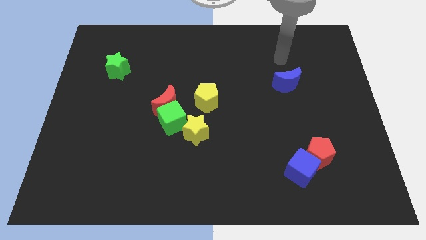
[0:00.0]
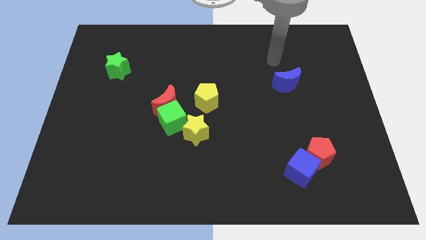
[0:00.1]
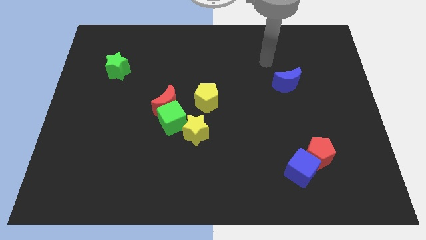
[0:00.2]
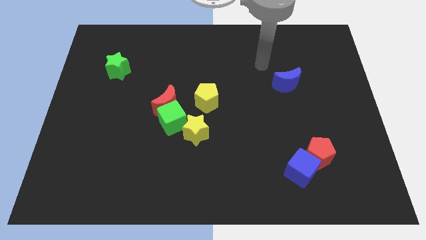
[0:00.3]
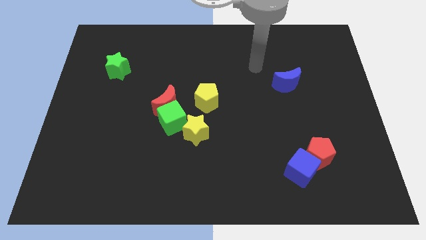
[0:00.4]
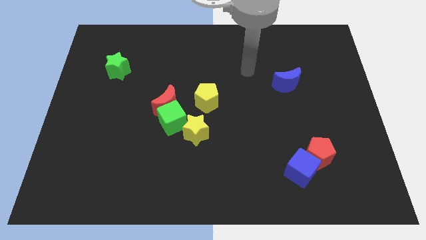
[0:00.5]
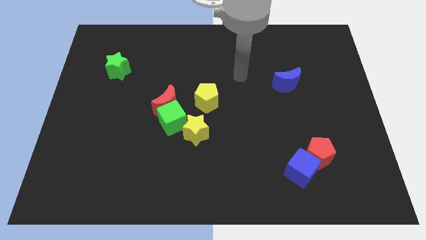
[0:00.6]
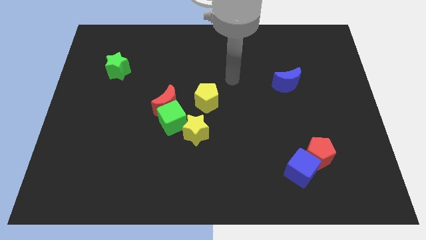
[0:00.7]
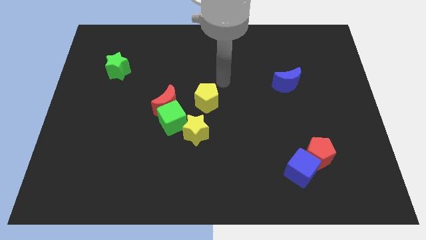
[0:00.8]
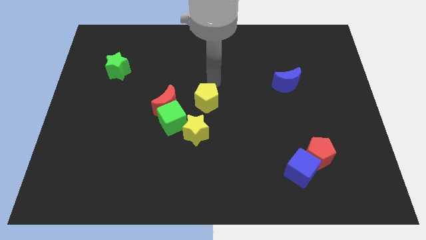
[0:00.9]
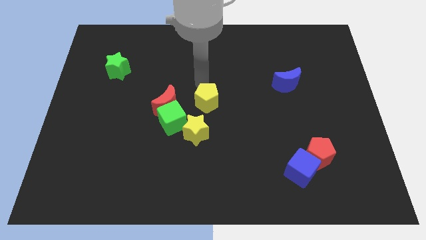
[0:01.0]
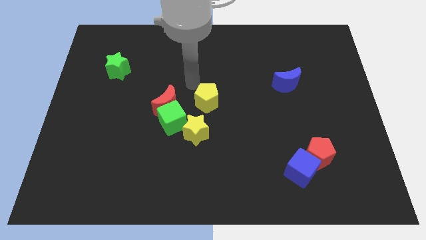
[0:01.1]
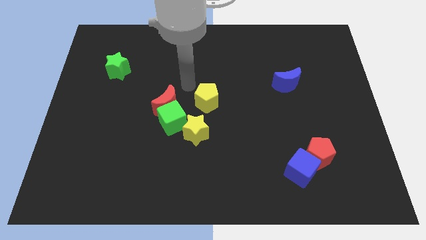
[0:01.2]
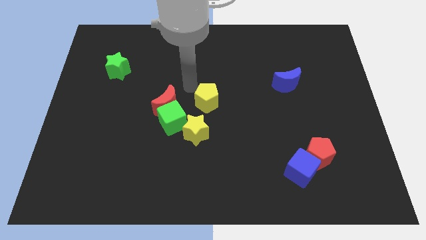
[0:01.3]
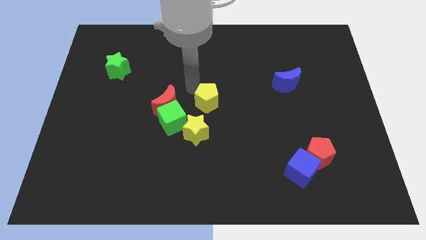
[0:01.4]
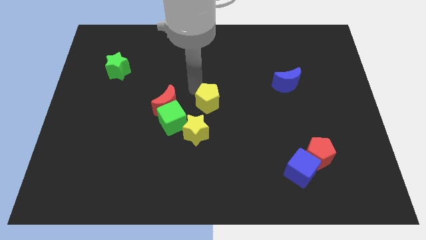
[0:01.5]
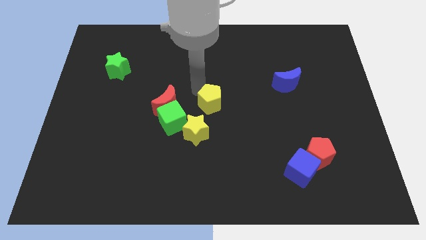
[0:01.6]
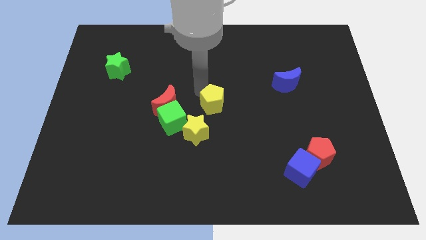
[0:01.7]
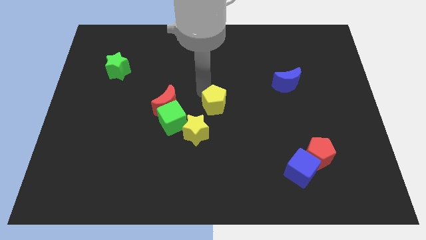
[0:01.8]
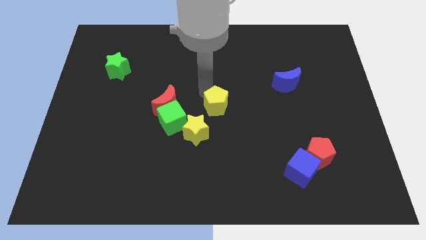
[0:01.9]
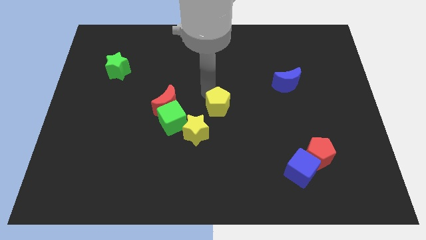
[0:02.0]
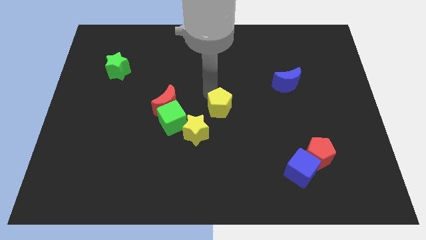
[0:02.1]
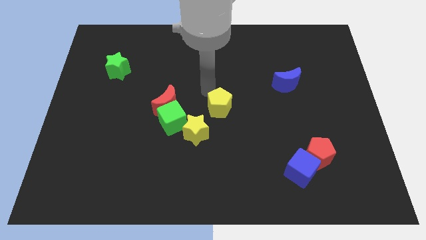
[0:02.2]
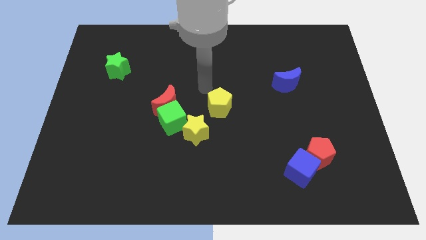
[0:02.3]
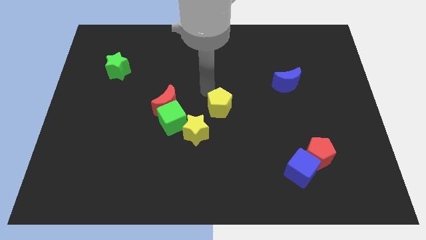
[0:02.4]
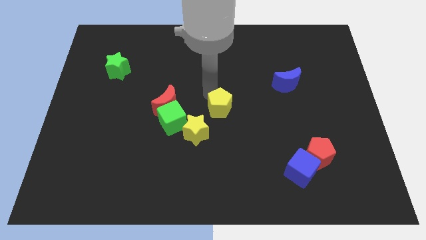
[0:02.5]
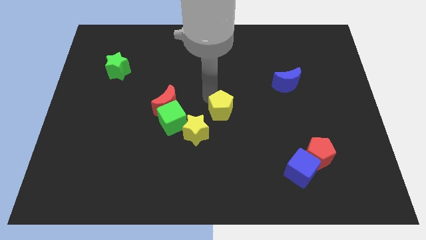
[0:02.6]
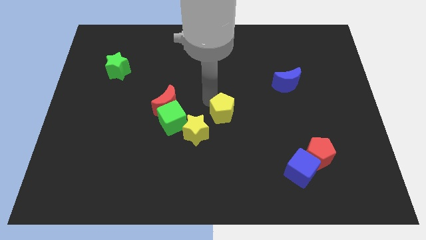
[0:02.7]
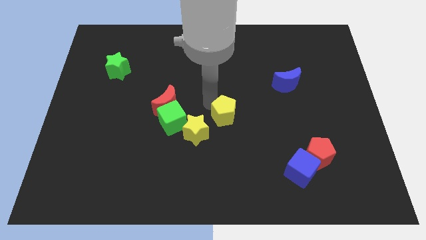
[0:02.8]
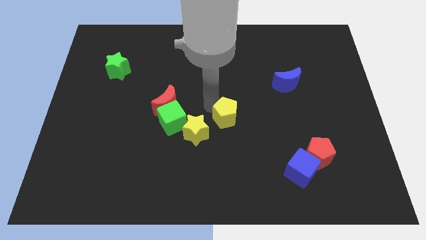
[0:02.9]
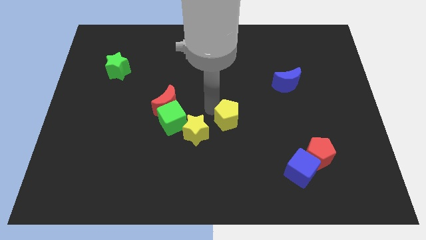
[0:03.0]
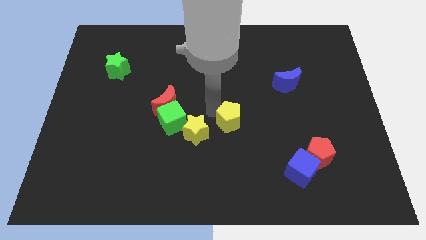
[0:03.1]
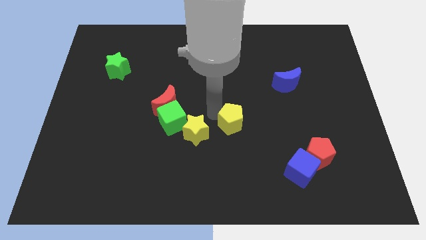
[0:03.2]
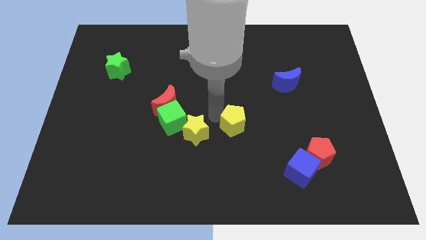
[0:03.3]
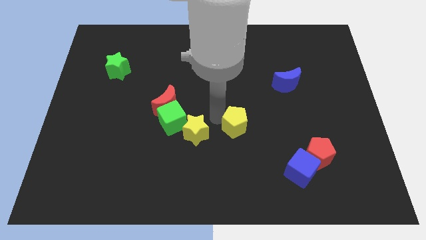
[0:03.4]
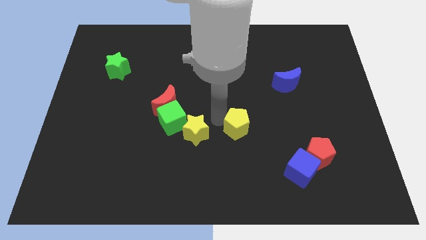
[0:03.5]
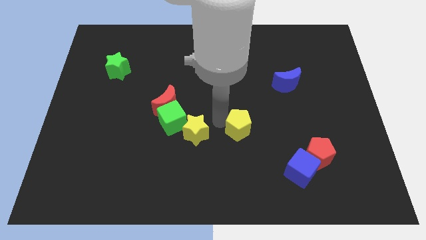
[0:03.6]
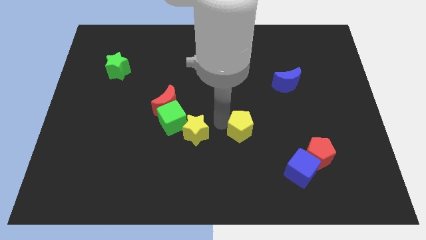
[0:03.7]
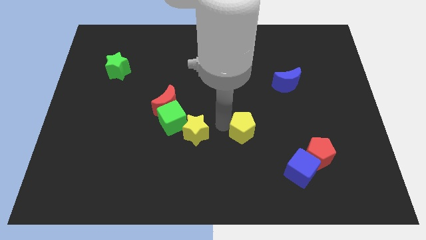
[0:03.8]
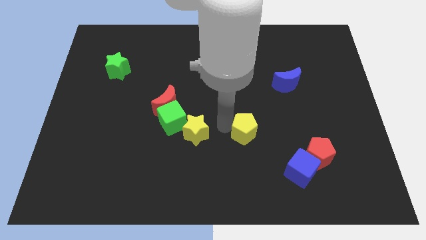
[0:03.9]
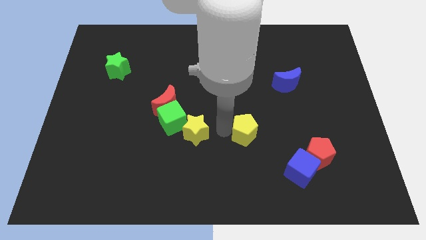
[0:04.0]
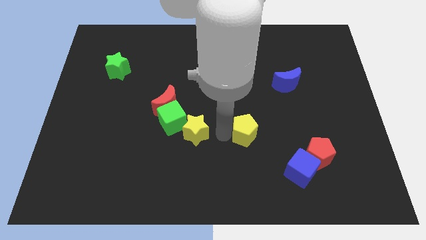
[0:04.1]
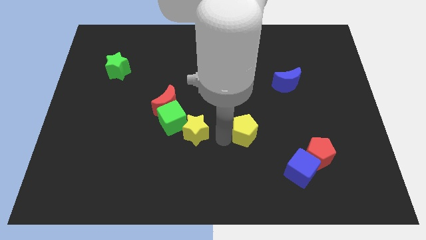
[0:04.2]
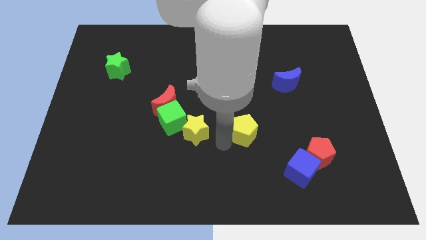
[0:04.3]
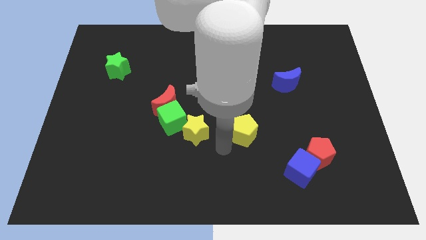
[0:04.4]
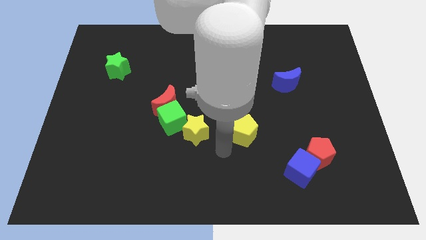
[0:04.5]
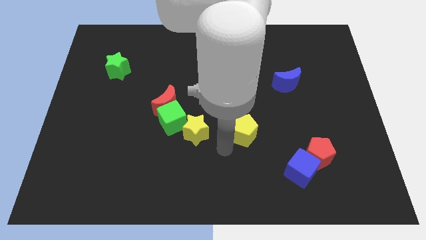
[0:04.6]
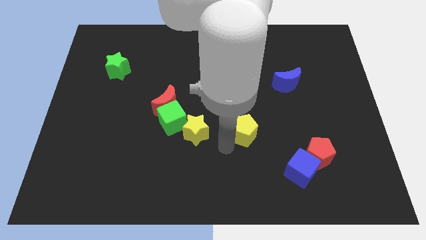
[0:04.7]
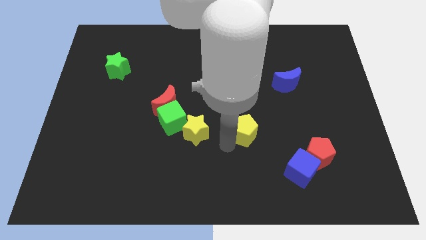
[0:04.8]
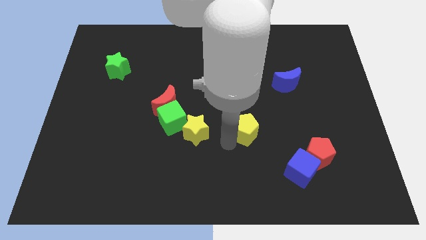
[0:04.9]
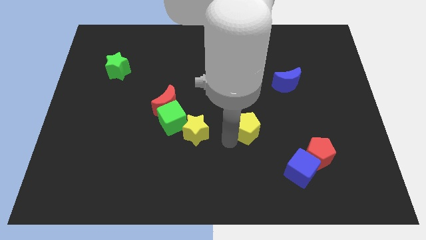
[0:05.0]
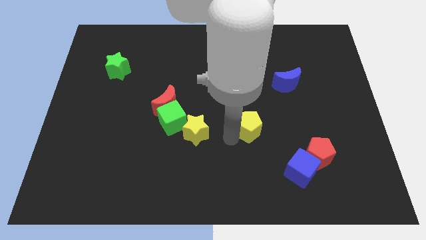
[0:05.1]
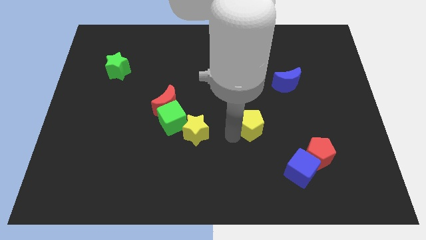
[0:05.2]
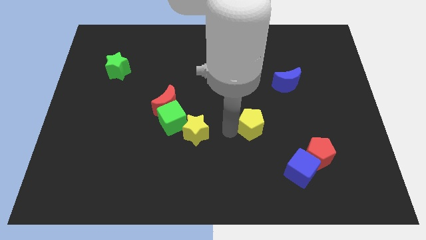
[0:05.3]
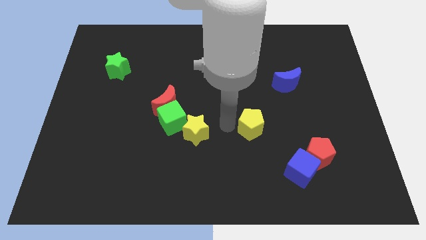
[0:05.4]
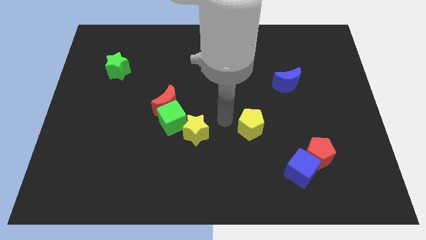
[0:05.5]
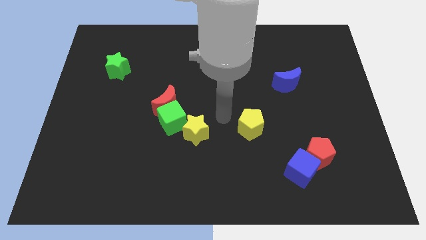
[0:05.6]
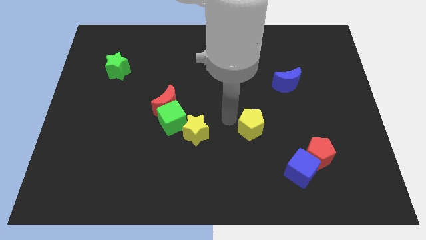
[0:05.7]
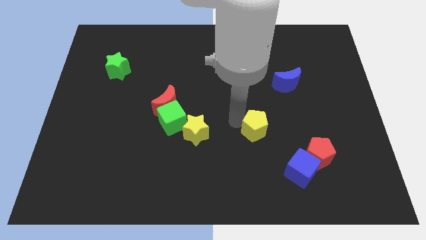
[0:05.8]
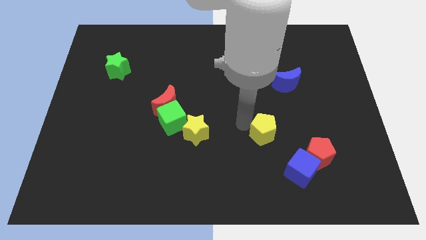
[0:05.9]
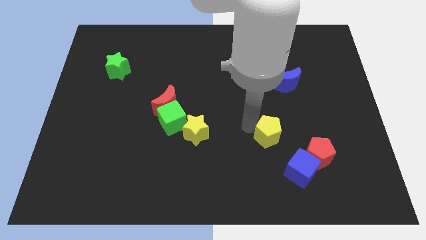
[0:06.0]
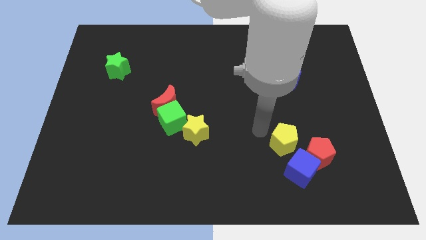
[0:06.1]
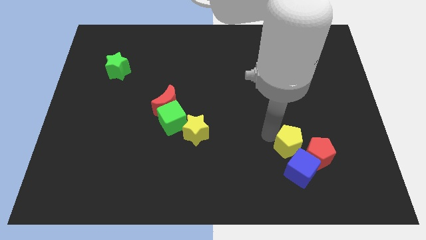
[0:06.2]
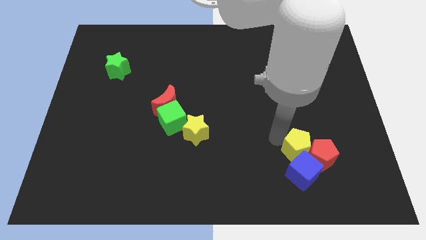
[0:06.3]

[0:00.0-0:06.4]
slide the yellow pentagon to the red pentagon

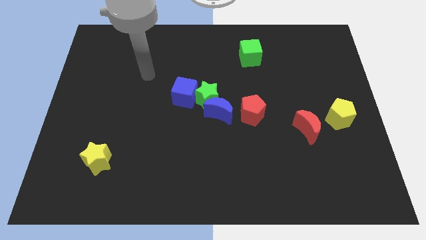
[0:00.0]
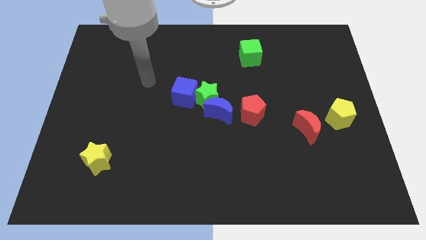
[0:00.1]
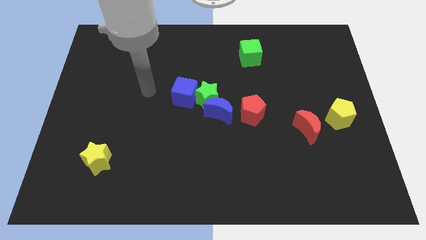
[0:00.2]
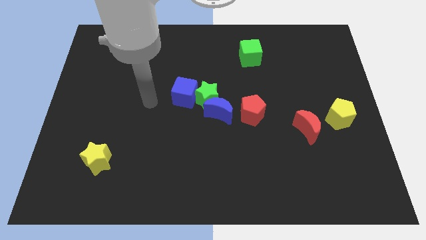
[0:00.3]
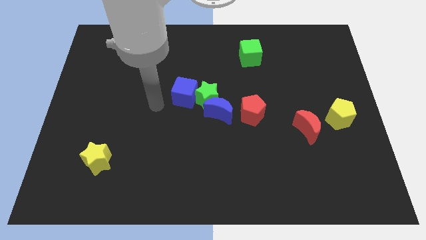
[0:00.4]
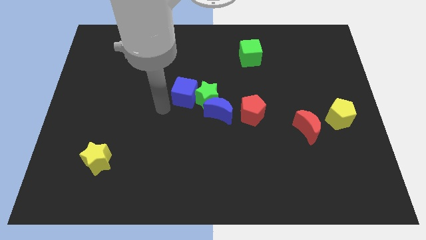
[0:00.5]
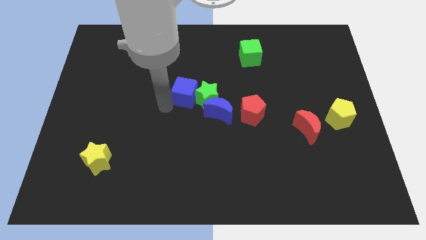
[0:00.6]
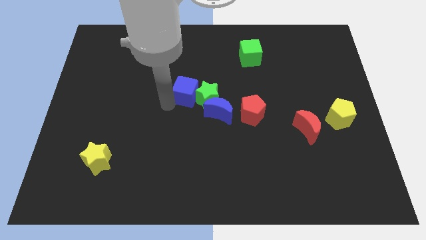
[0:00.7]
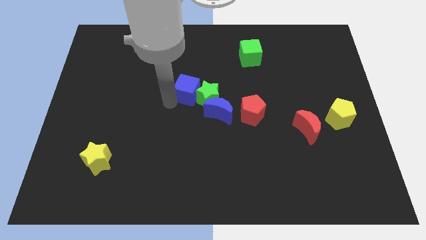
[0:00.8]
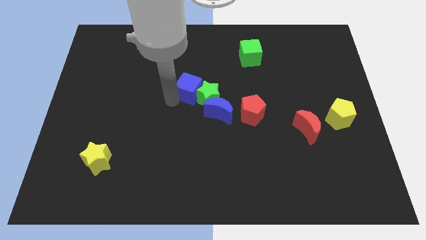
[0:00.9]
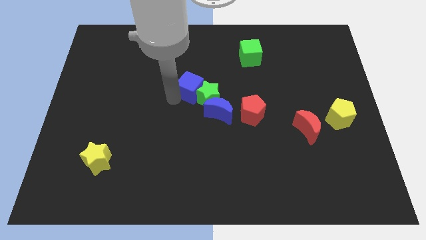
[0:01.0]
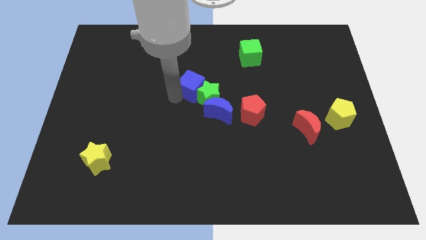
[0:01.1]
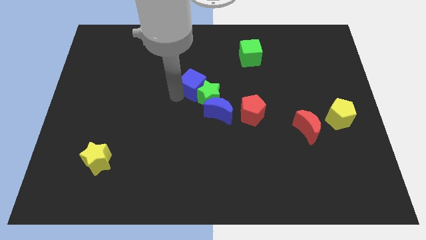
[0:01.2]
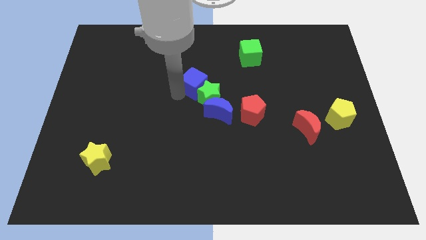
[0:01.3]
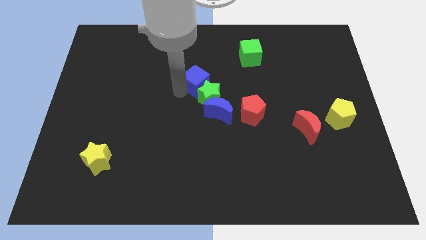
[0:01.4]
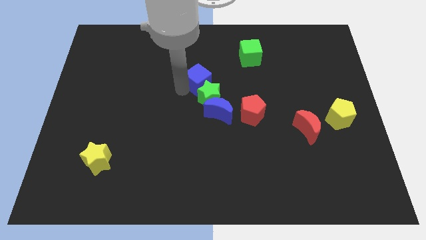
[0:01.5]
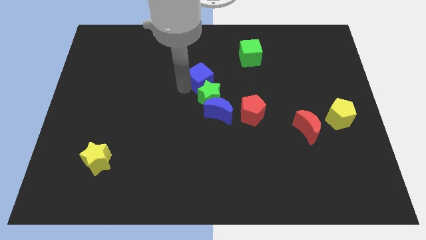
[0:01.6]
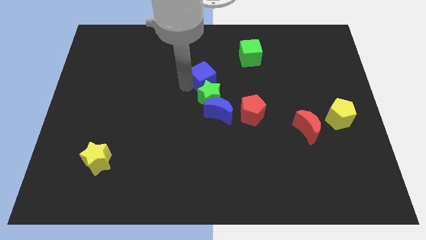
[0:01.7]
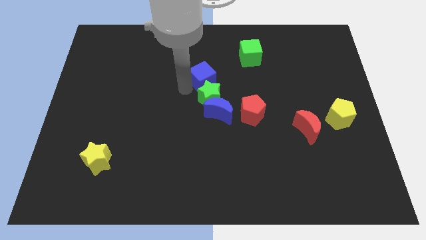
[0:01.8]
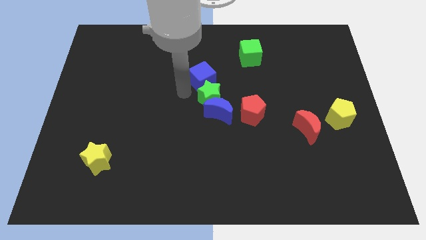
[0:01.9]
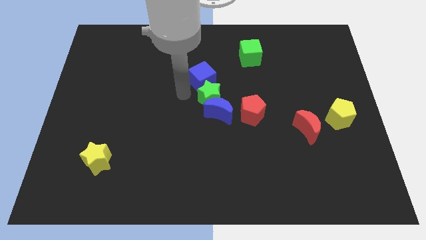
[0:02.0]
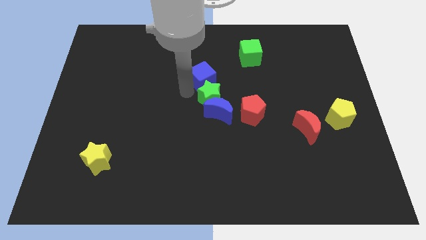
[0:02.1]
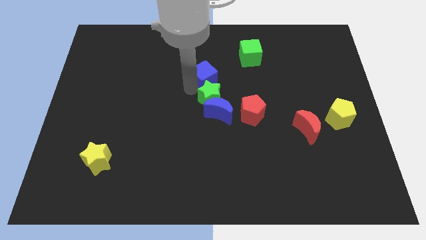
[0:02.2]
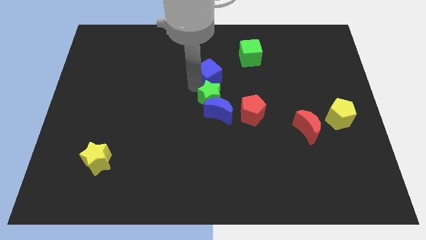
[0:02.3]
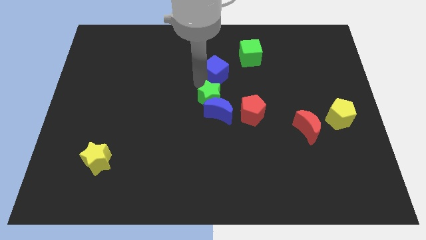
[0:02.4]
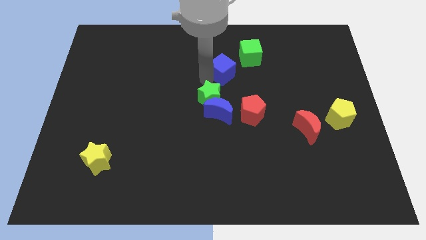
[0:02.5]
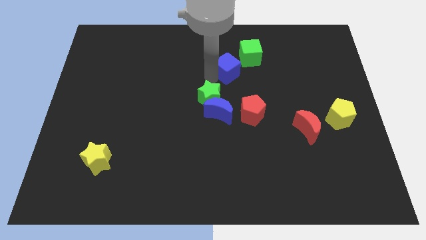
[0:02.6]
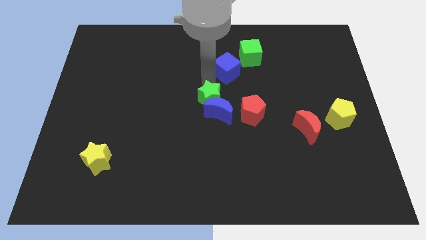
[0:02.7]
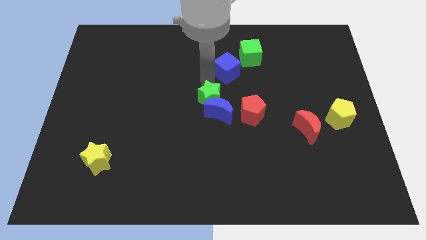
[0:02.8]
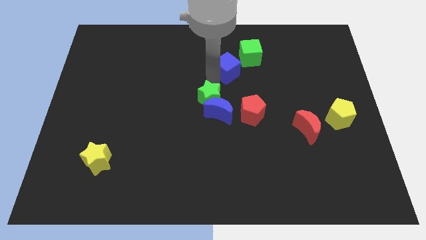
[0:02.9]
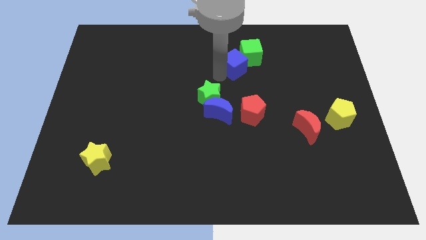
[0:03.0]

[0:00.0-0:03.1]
push the blue cube towards the green cube
